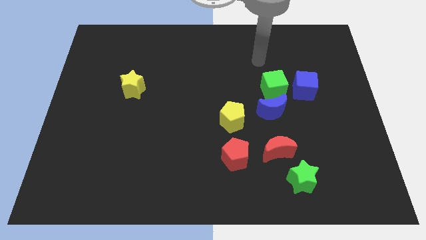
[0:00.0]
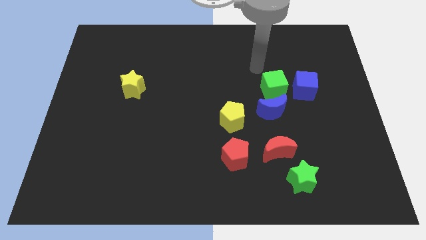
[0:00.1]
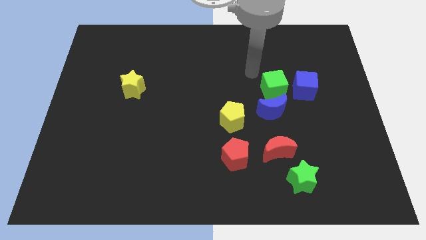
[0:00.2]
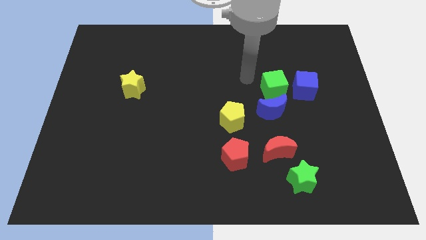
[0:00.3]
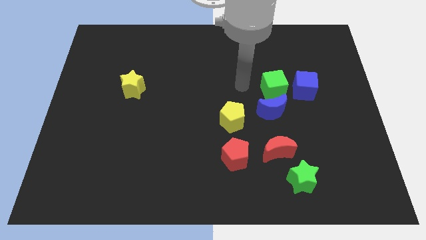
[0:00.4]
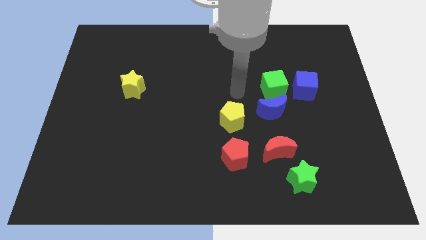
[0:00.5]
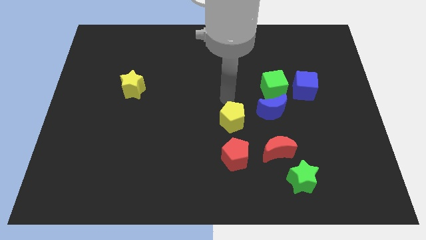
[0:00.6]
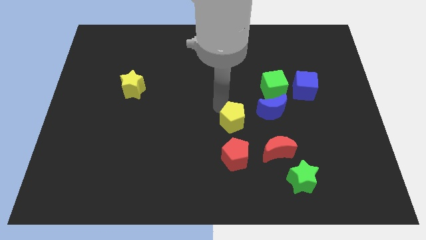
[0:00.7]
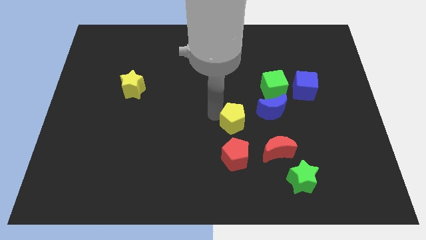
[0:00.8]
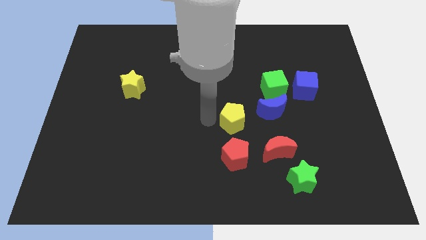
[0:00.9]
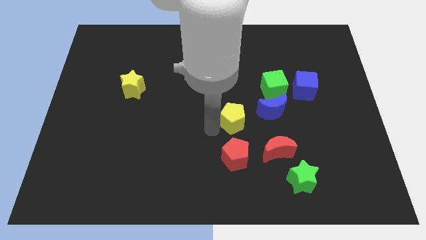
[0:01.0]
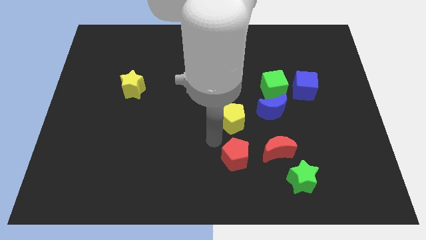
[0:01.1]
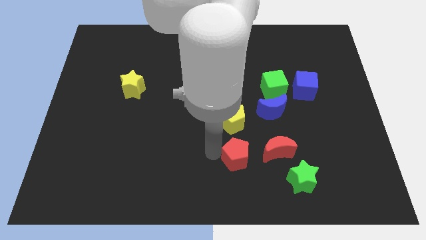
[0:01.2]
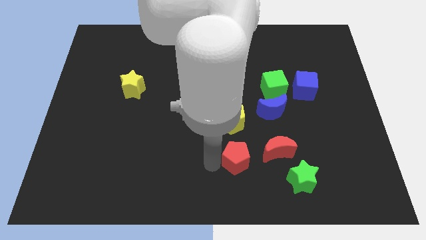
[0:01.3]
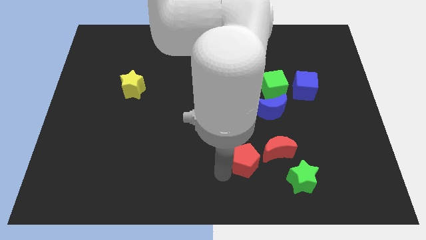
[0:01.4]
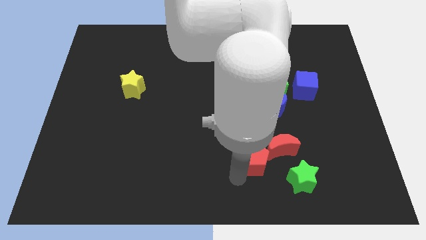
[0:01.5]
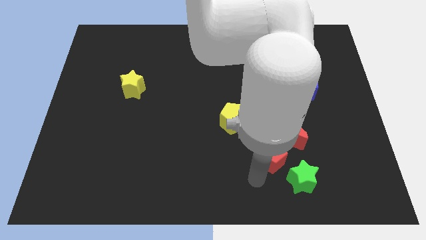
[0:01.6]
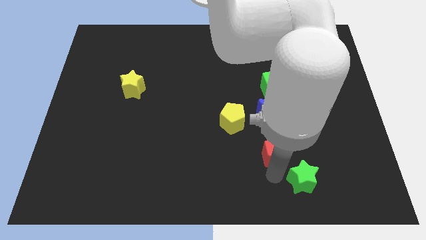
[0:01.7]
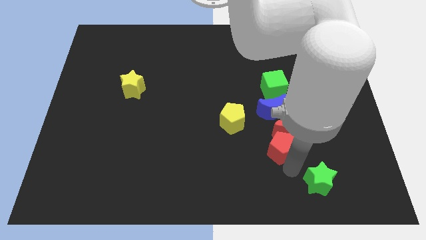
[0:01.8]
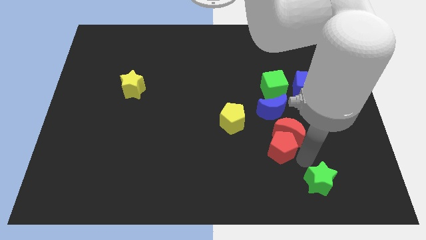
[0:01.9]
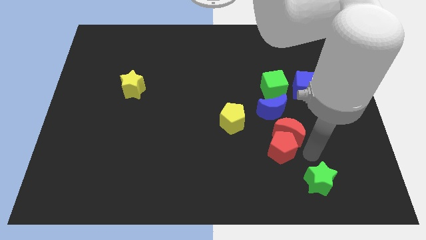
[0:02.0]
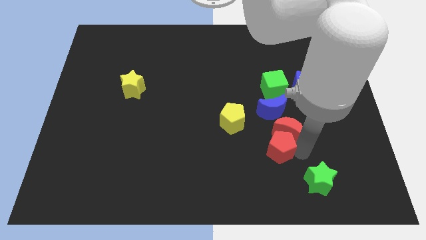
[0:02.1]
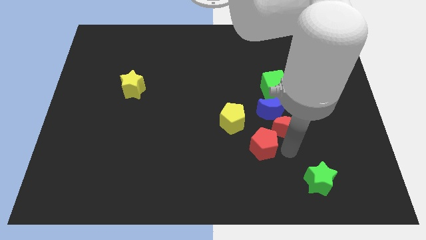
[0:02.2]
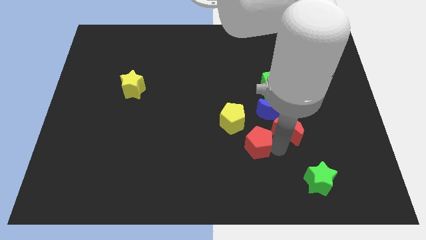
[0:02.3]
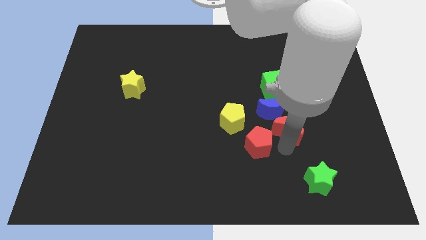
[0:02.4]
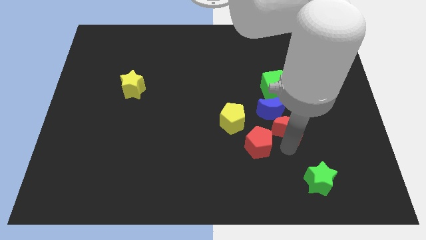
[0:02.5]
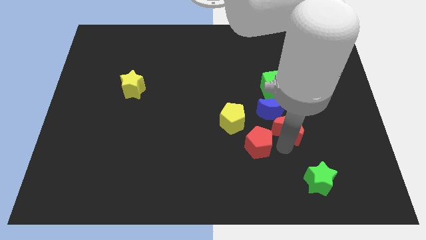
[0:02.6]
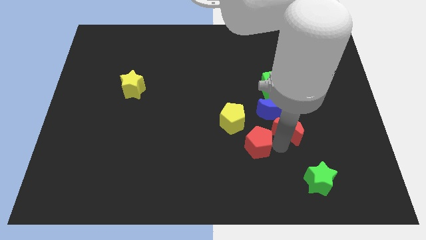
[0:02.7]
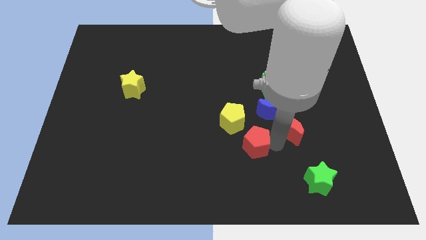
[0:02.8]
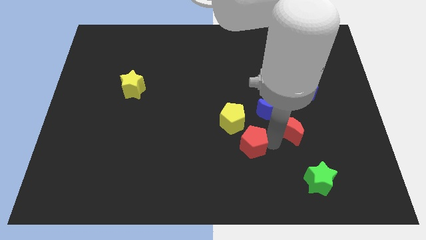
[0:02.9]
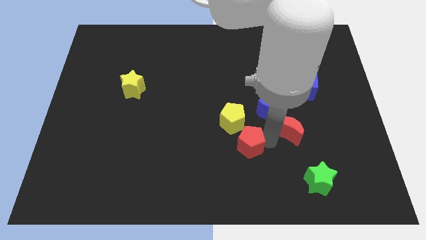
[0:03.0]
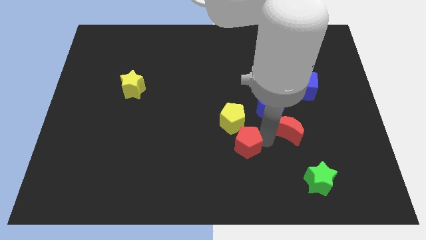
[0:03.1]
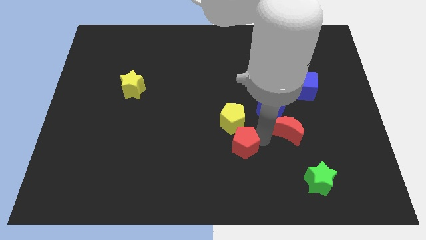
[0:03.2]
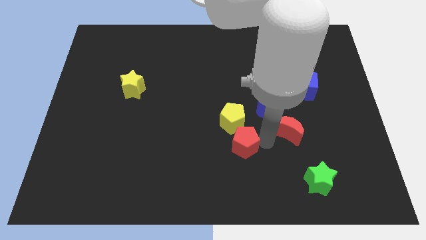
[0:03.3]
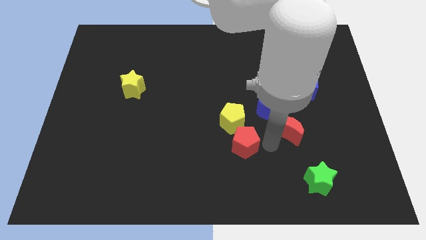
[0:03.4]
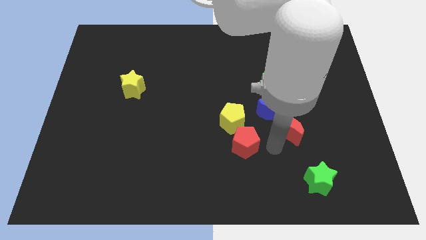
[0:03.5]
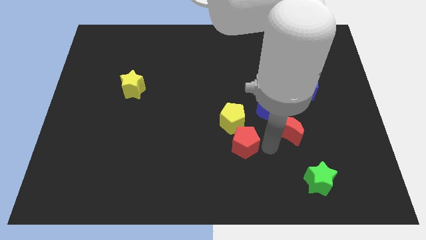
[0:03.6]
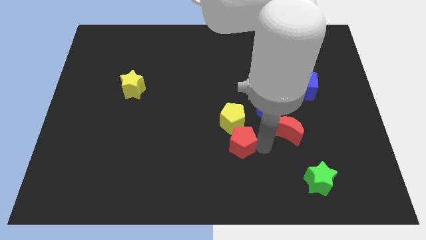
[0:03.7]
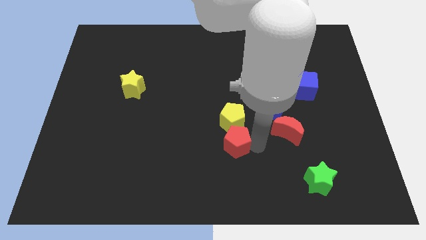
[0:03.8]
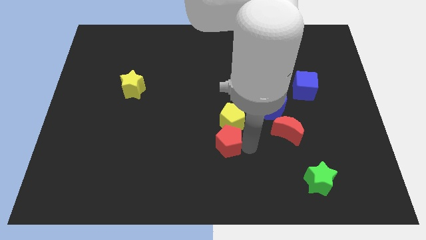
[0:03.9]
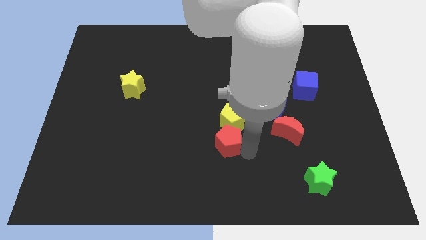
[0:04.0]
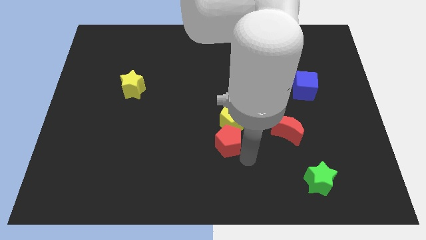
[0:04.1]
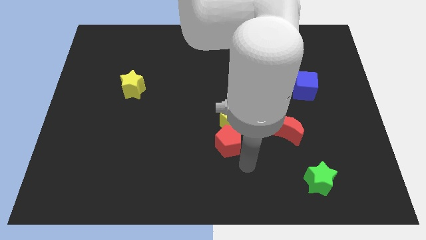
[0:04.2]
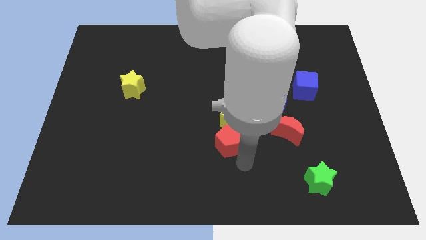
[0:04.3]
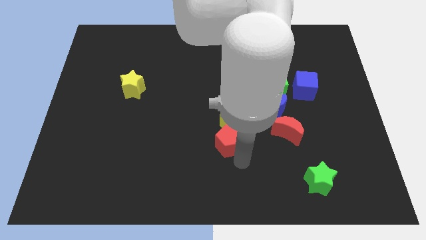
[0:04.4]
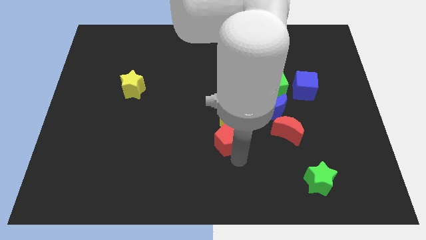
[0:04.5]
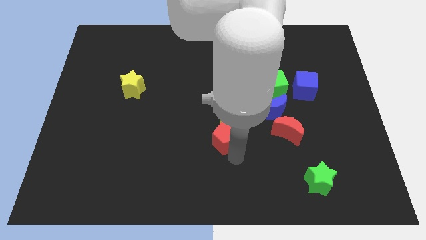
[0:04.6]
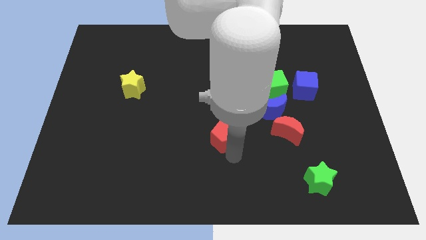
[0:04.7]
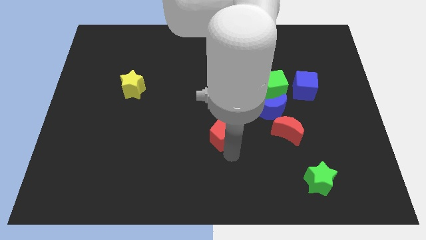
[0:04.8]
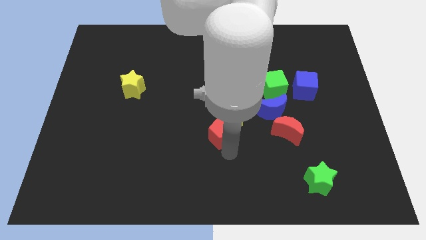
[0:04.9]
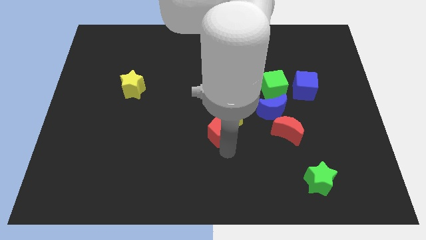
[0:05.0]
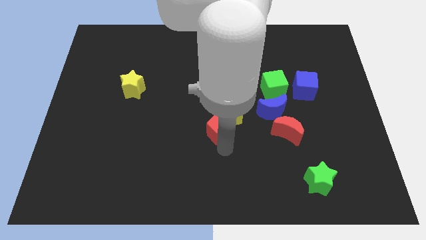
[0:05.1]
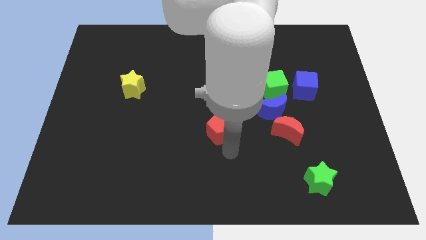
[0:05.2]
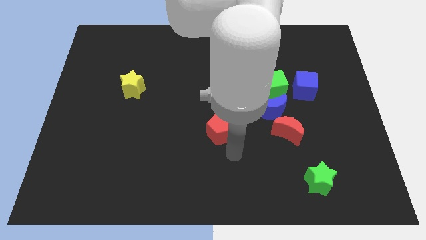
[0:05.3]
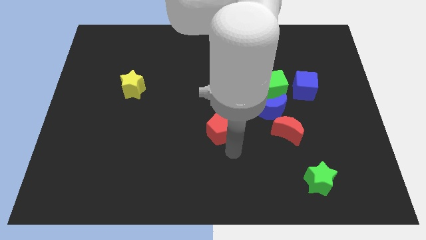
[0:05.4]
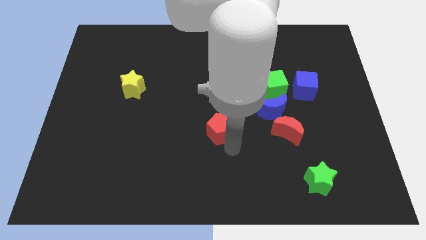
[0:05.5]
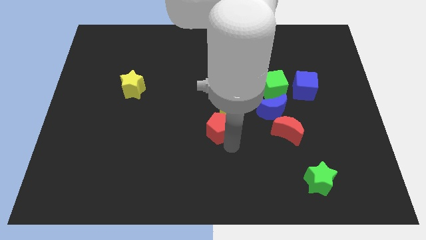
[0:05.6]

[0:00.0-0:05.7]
move the red pentagon upwards somewhat

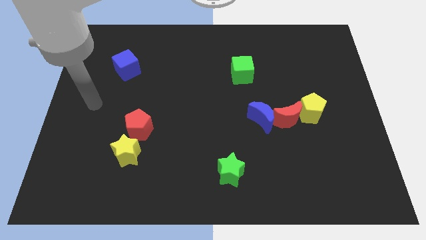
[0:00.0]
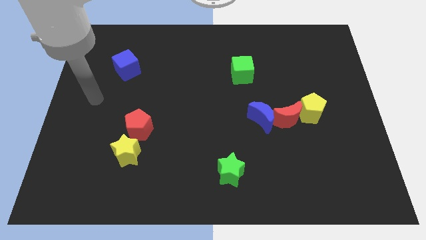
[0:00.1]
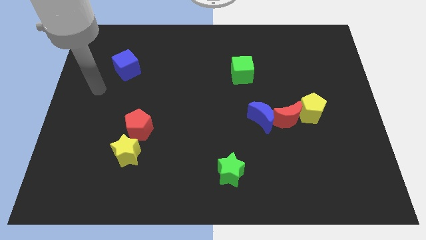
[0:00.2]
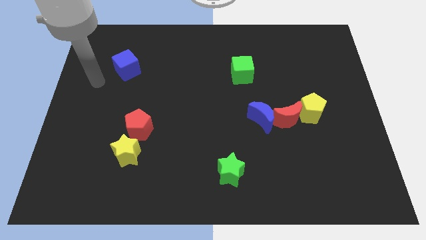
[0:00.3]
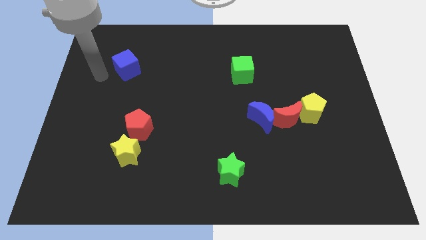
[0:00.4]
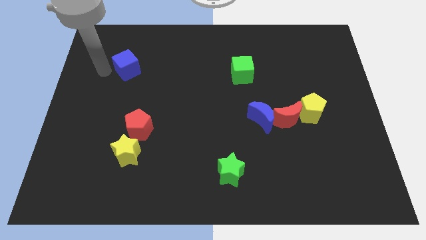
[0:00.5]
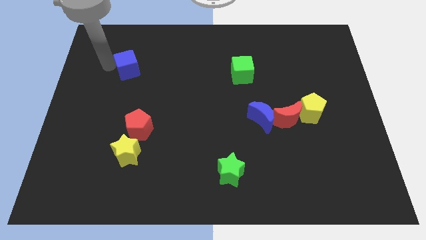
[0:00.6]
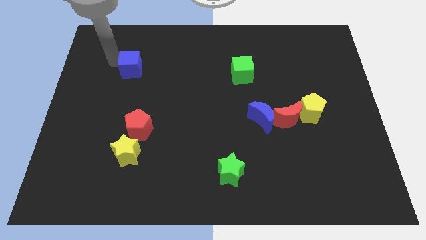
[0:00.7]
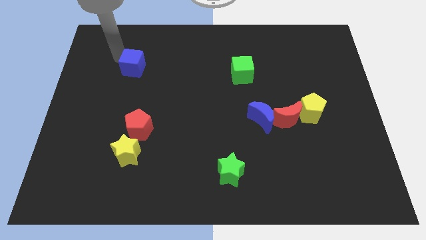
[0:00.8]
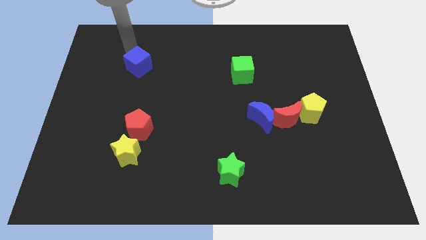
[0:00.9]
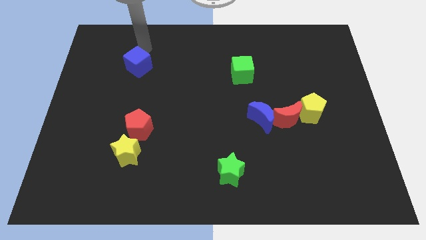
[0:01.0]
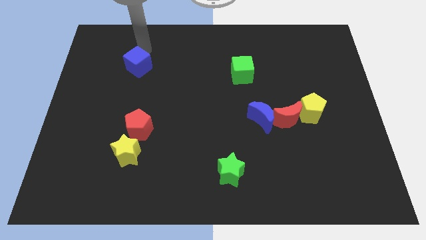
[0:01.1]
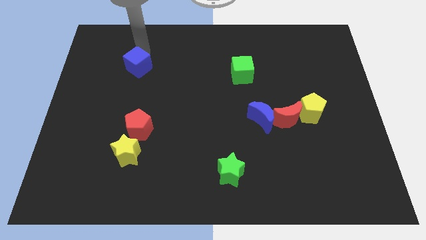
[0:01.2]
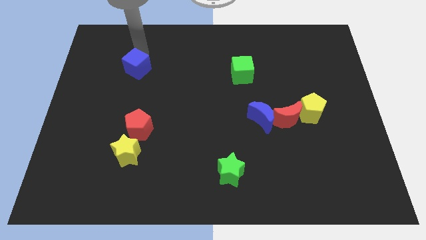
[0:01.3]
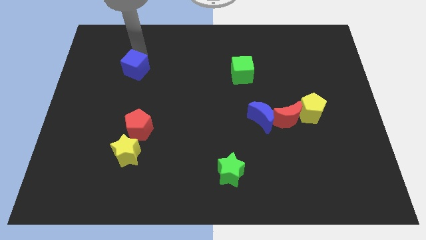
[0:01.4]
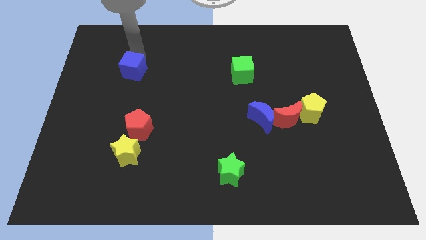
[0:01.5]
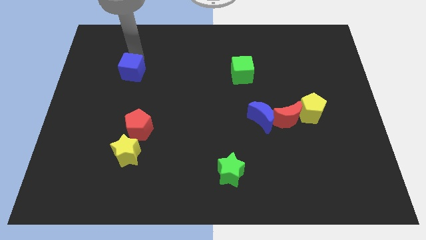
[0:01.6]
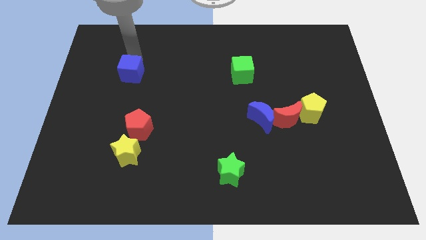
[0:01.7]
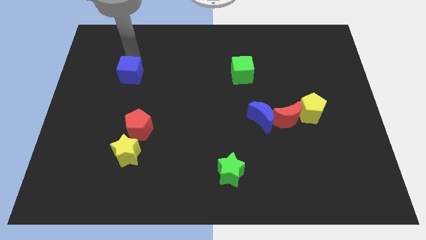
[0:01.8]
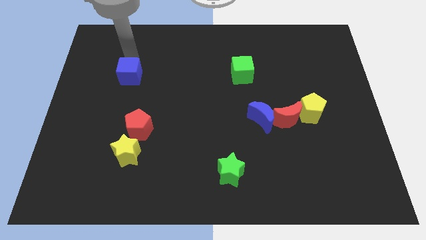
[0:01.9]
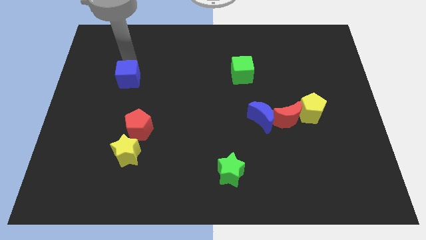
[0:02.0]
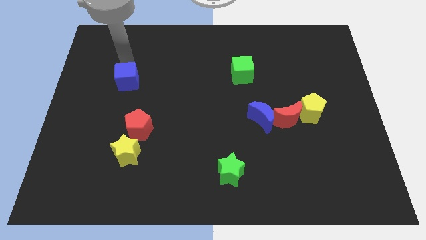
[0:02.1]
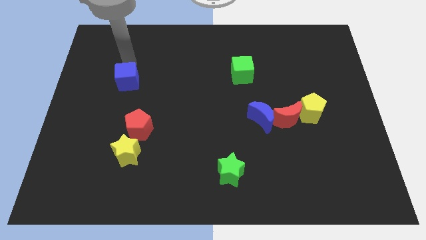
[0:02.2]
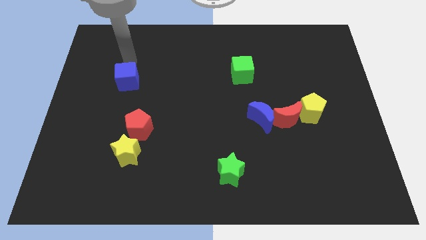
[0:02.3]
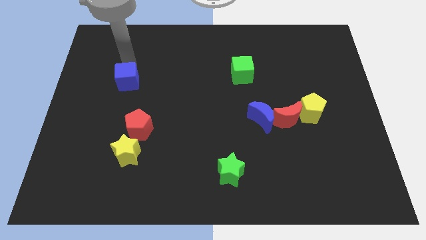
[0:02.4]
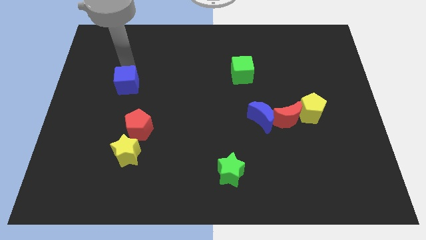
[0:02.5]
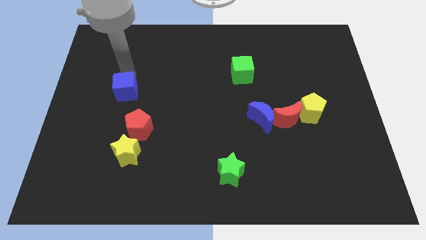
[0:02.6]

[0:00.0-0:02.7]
push the blue cube down somewhat
